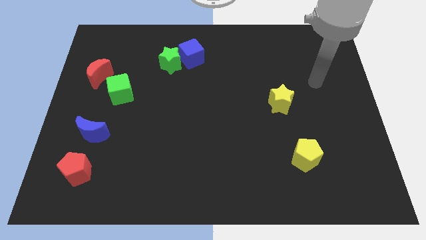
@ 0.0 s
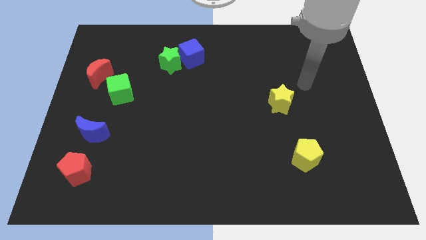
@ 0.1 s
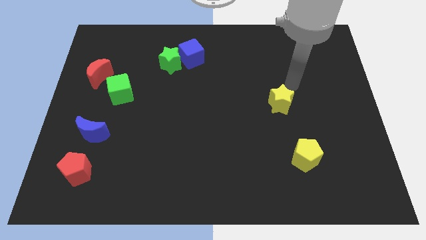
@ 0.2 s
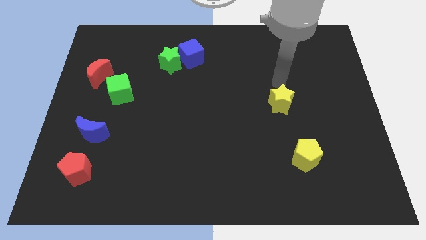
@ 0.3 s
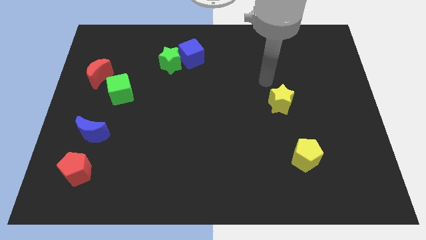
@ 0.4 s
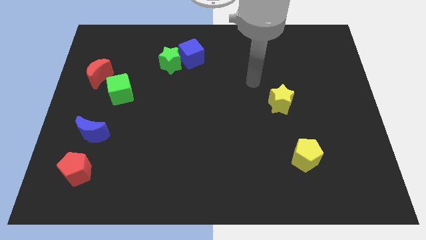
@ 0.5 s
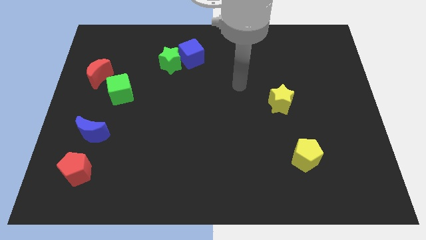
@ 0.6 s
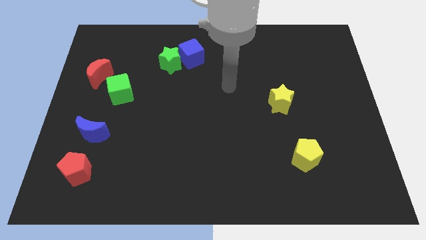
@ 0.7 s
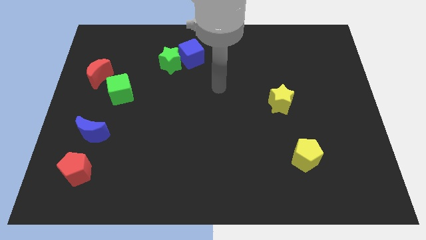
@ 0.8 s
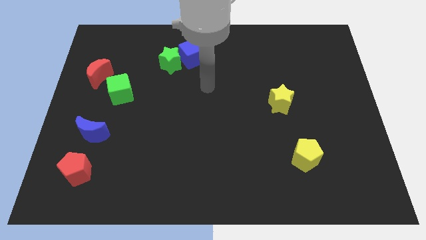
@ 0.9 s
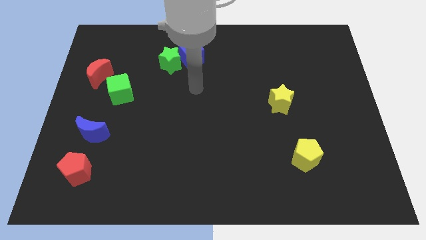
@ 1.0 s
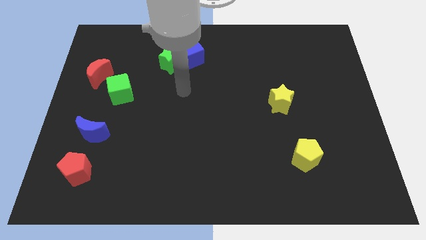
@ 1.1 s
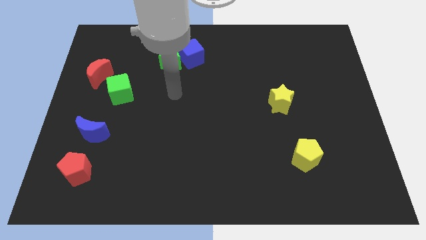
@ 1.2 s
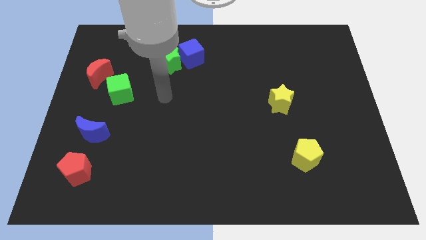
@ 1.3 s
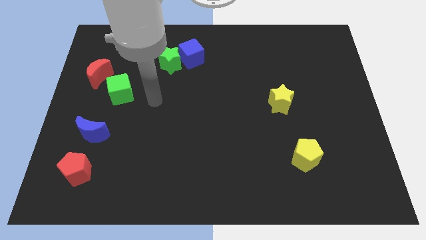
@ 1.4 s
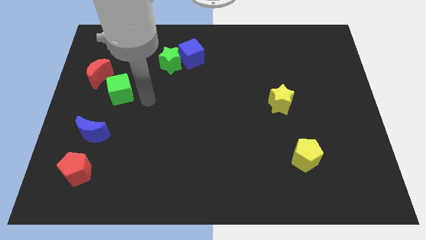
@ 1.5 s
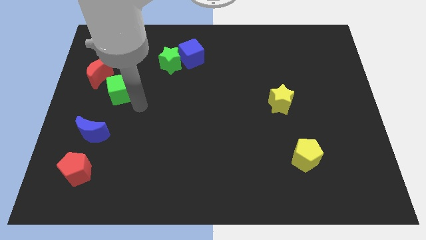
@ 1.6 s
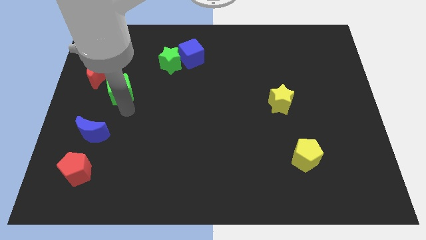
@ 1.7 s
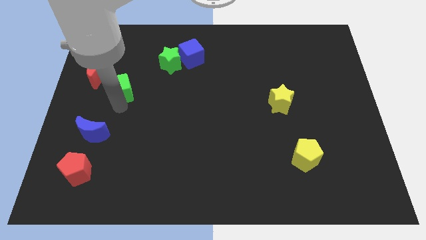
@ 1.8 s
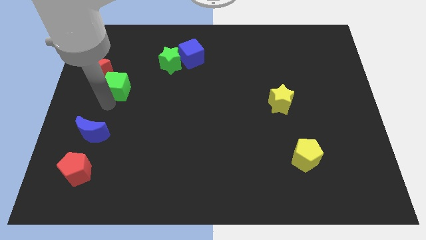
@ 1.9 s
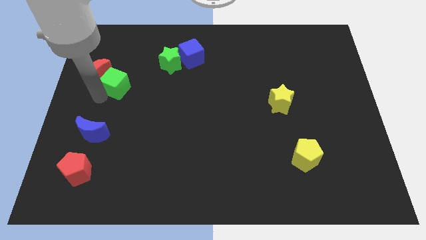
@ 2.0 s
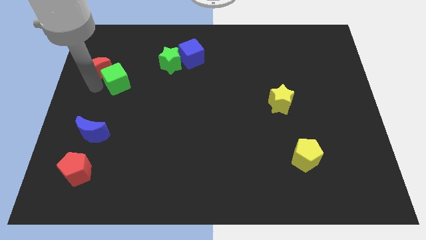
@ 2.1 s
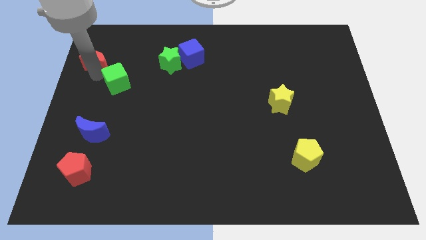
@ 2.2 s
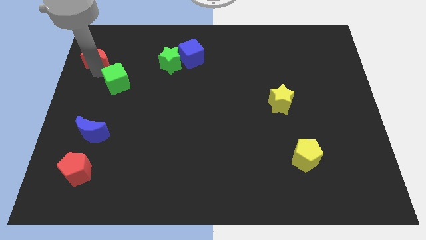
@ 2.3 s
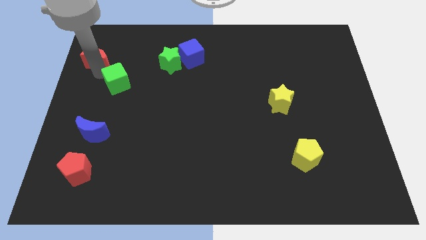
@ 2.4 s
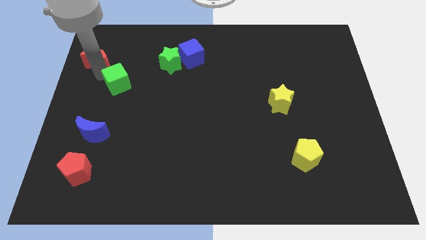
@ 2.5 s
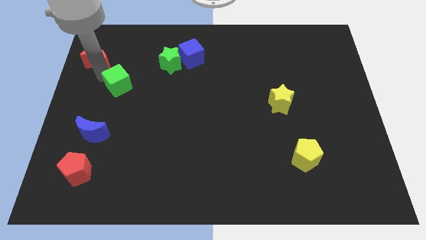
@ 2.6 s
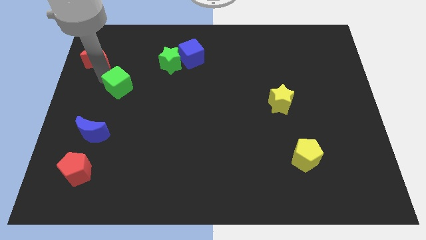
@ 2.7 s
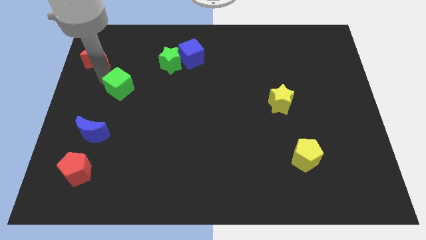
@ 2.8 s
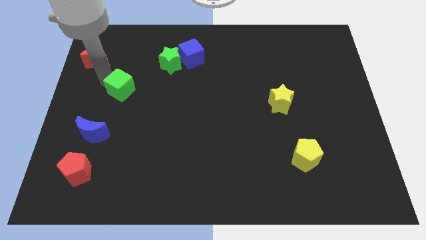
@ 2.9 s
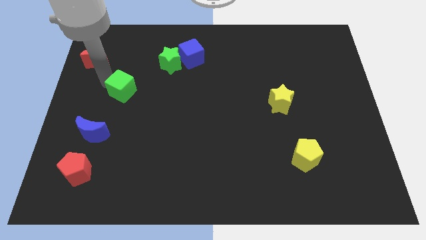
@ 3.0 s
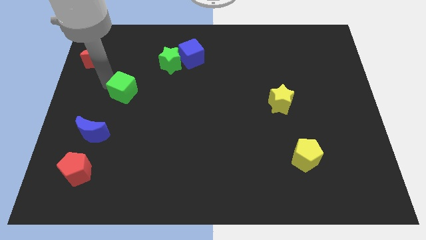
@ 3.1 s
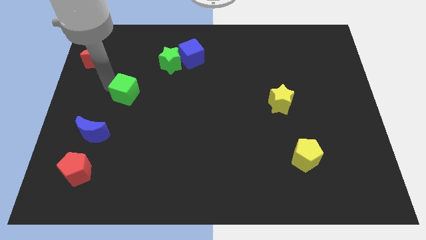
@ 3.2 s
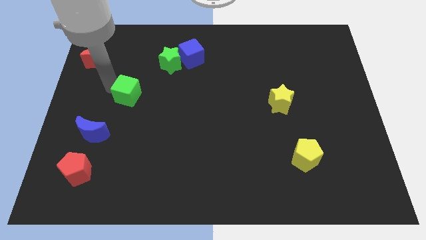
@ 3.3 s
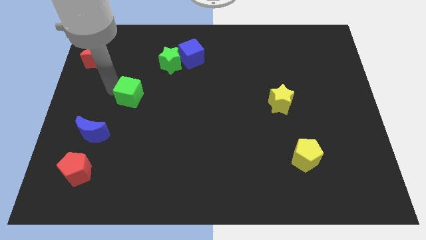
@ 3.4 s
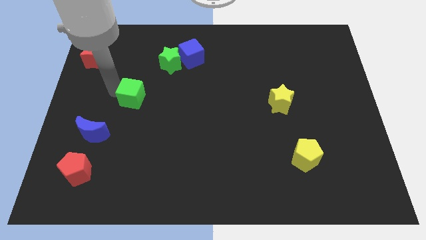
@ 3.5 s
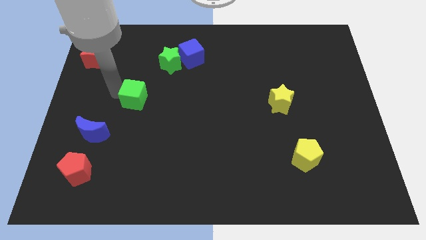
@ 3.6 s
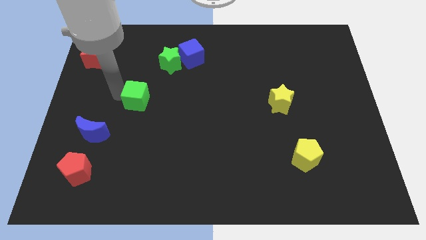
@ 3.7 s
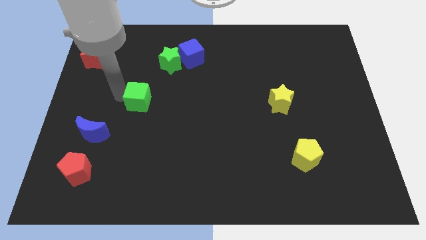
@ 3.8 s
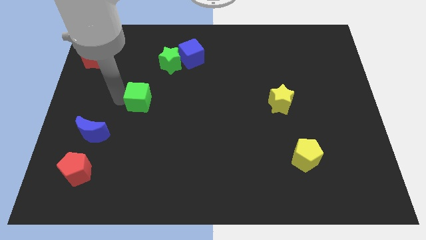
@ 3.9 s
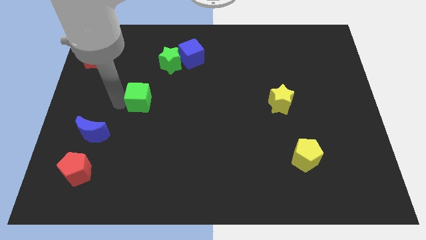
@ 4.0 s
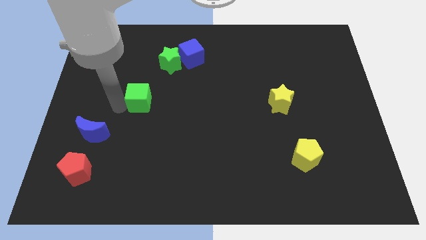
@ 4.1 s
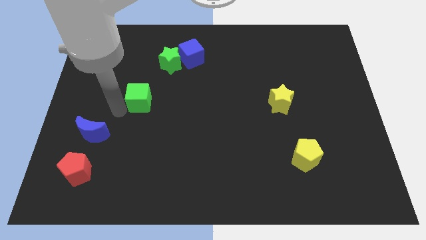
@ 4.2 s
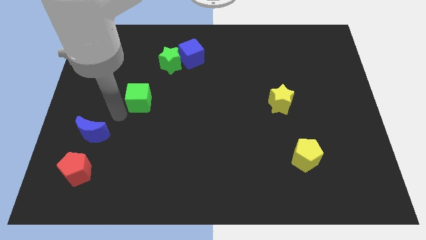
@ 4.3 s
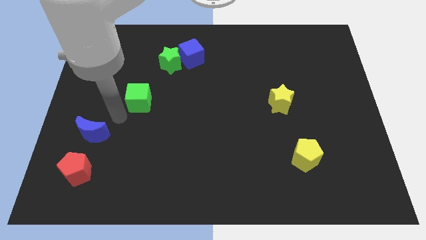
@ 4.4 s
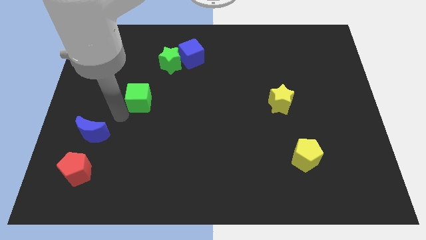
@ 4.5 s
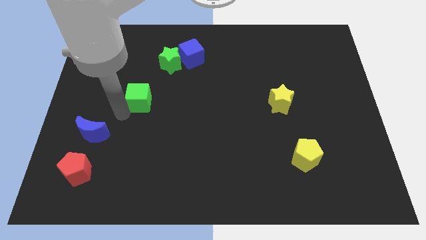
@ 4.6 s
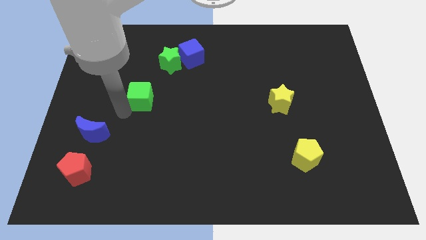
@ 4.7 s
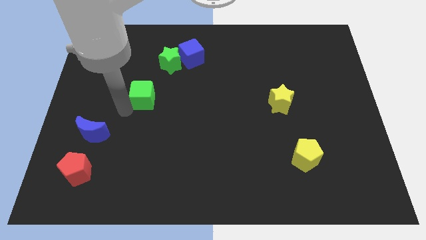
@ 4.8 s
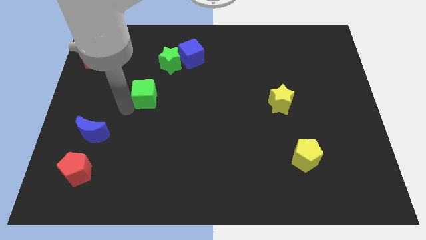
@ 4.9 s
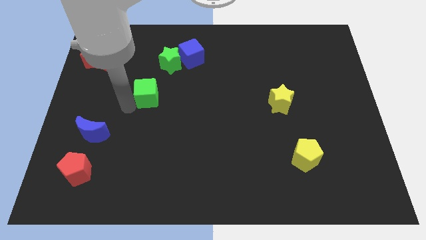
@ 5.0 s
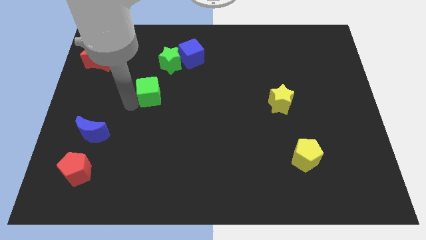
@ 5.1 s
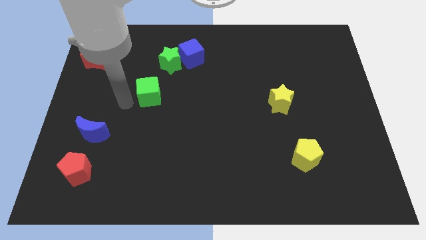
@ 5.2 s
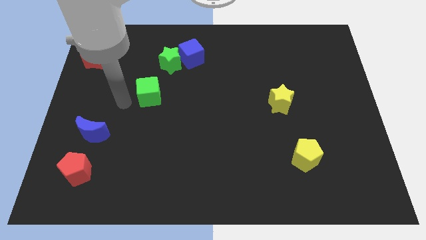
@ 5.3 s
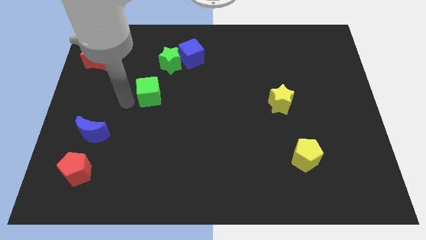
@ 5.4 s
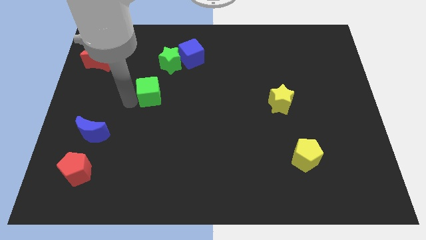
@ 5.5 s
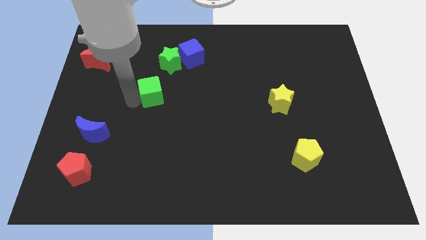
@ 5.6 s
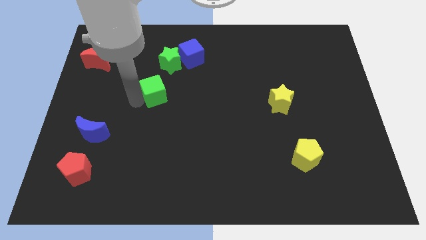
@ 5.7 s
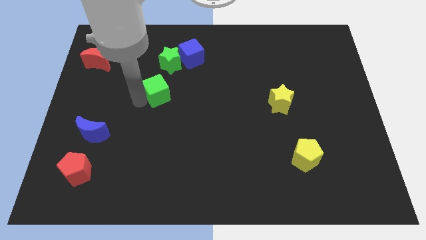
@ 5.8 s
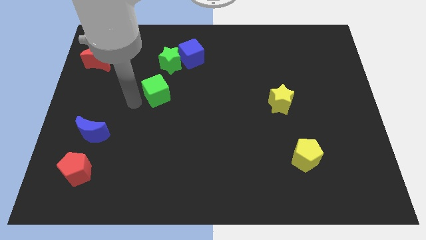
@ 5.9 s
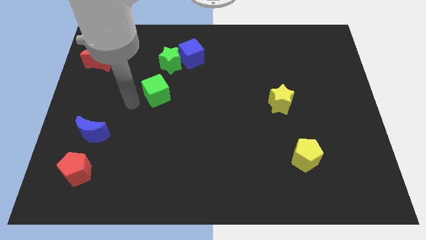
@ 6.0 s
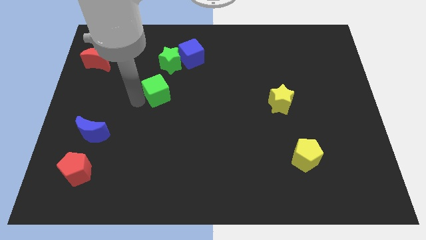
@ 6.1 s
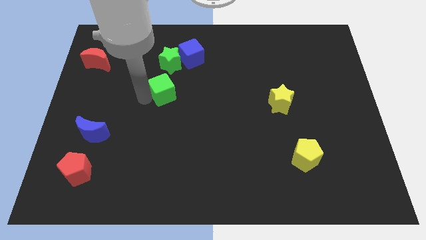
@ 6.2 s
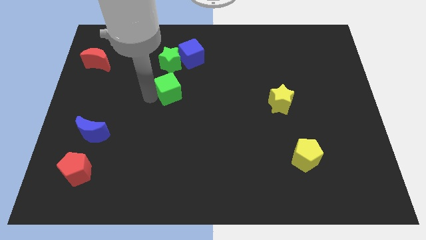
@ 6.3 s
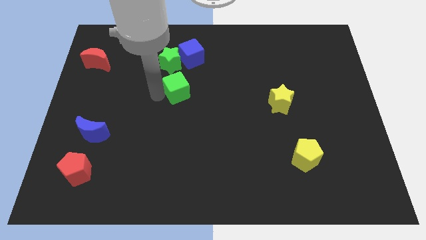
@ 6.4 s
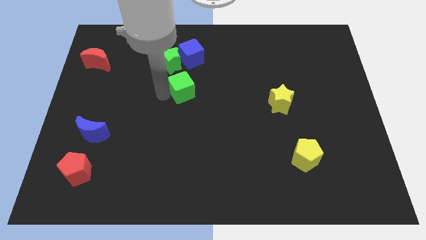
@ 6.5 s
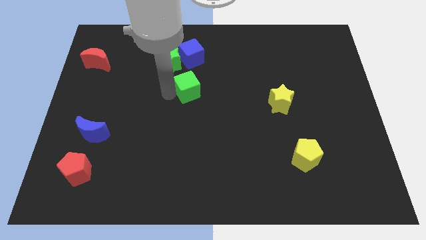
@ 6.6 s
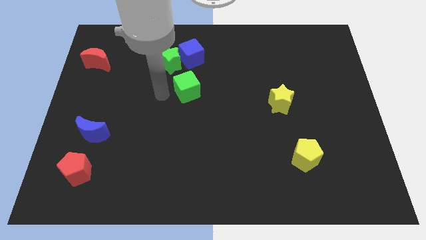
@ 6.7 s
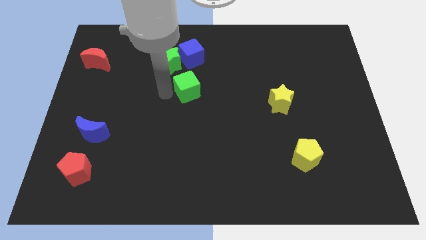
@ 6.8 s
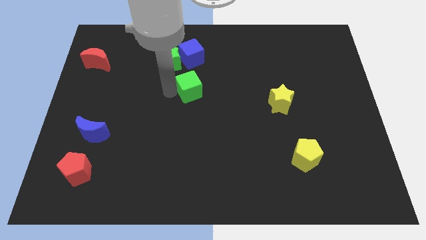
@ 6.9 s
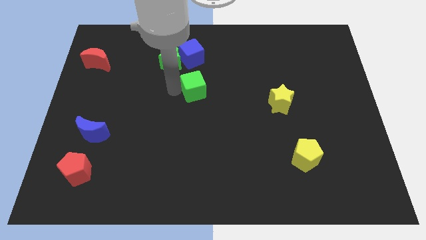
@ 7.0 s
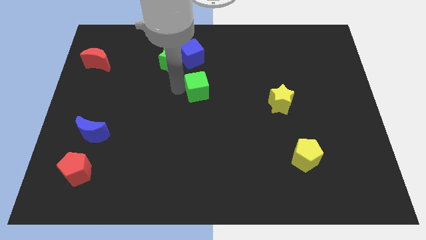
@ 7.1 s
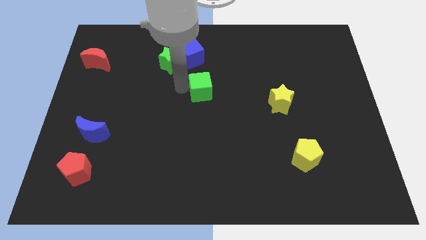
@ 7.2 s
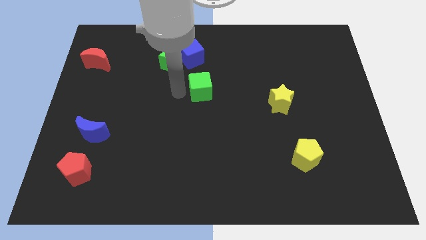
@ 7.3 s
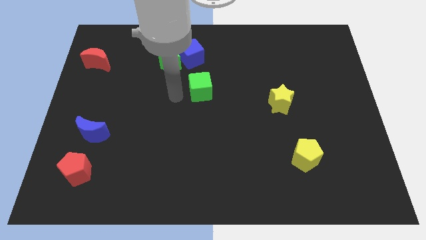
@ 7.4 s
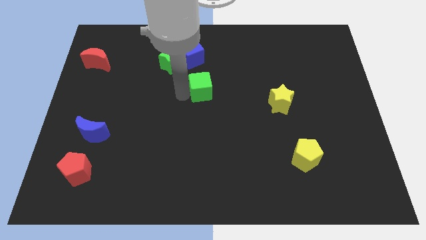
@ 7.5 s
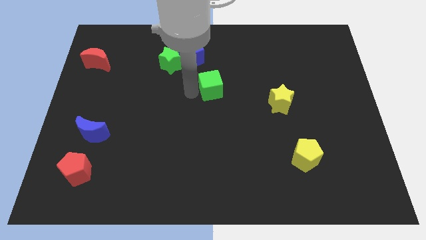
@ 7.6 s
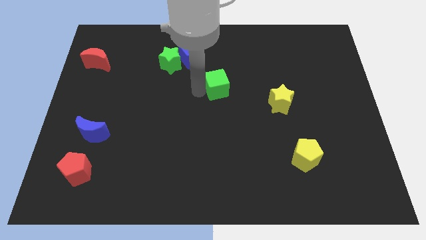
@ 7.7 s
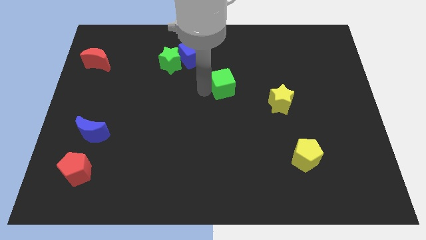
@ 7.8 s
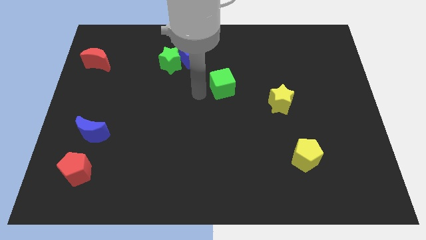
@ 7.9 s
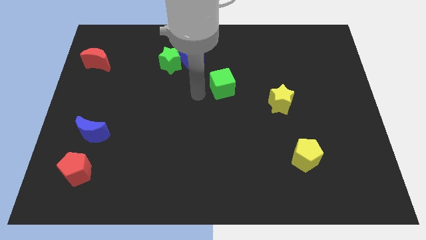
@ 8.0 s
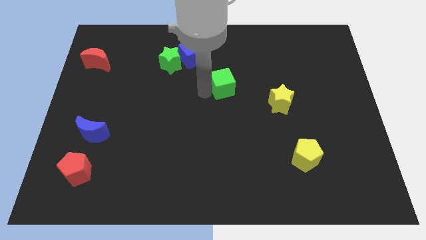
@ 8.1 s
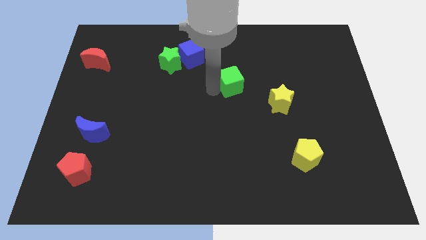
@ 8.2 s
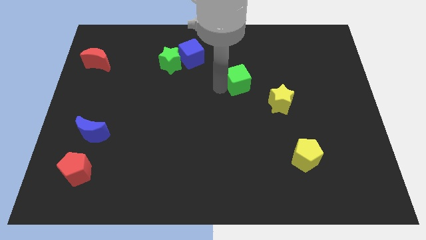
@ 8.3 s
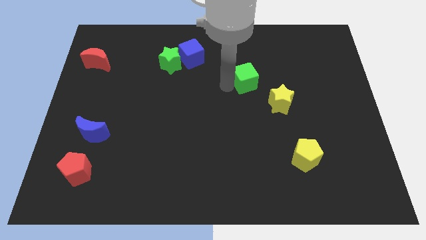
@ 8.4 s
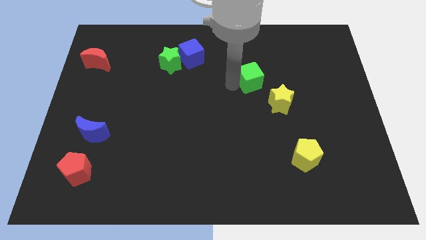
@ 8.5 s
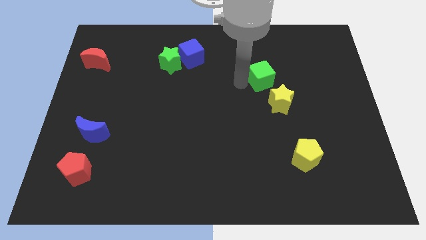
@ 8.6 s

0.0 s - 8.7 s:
put the green cube to the top side of the yellow star
